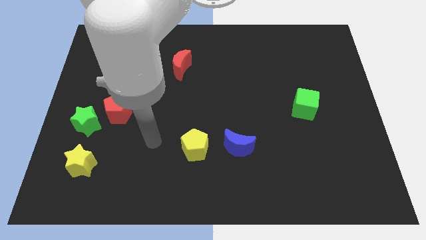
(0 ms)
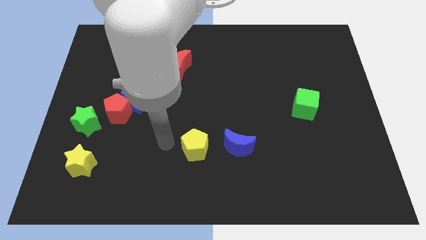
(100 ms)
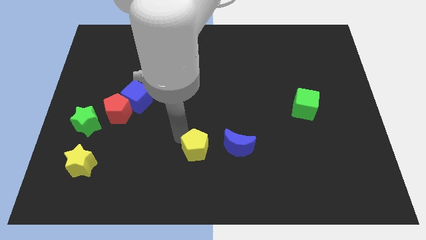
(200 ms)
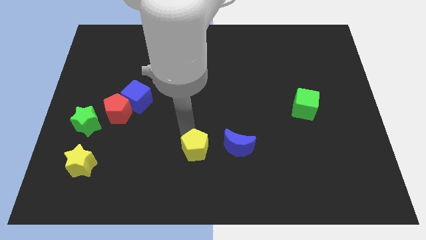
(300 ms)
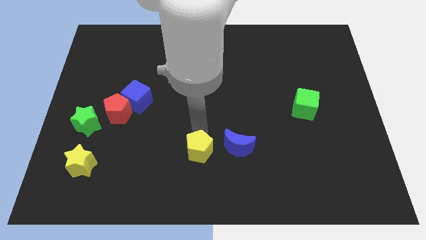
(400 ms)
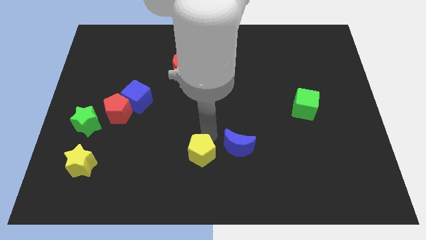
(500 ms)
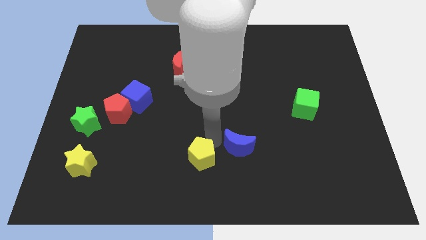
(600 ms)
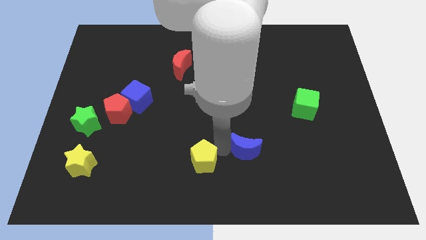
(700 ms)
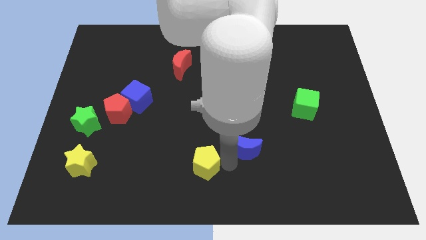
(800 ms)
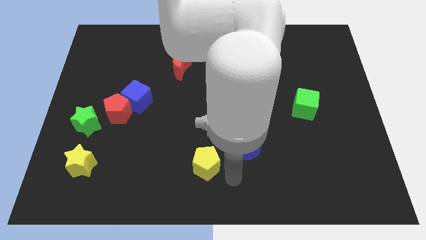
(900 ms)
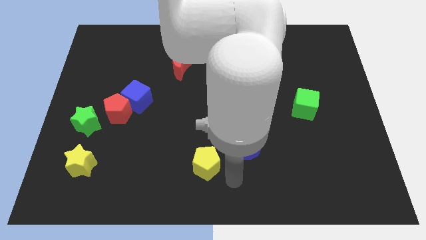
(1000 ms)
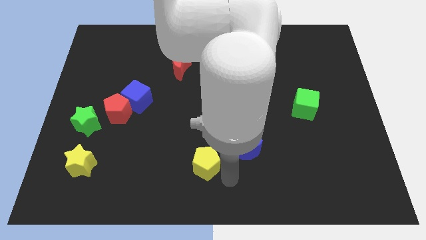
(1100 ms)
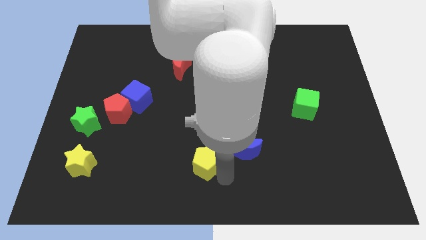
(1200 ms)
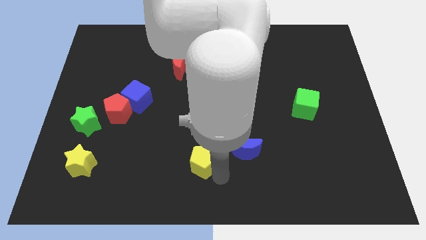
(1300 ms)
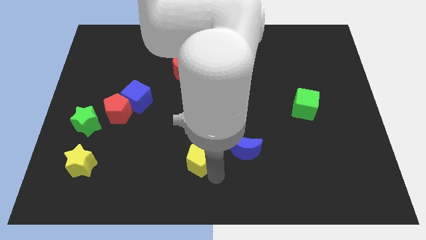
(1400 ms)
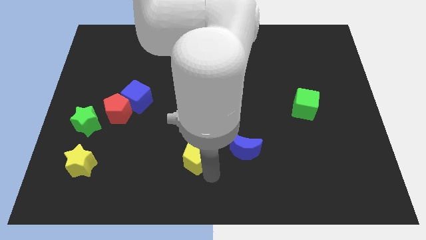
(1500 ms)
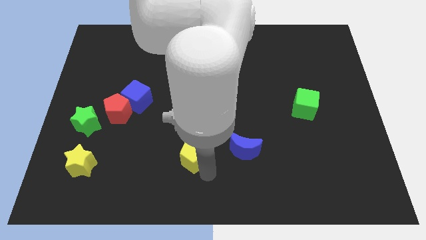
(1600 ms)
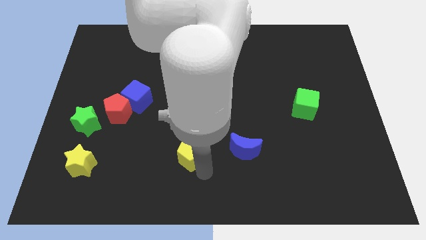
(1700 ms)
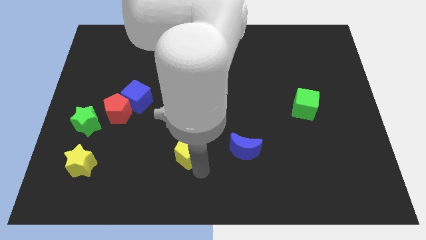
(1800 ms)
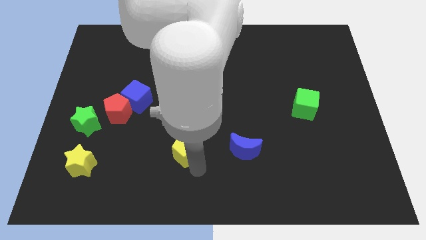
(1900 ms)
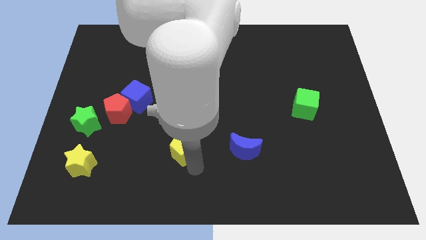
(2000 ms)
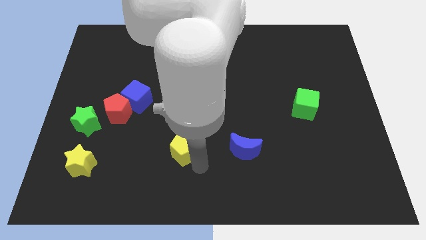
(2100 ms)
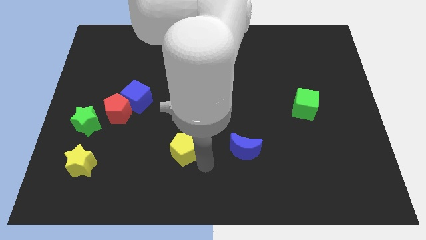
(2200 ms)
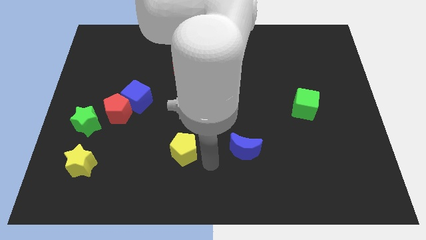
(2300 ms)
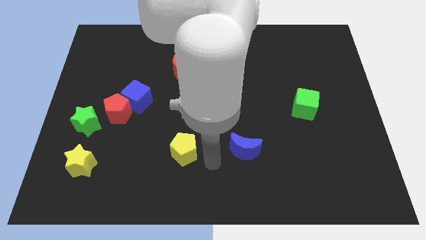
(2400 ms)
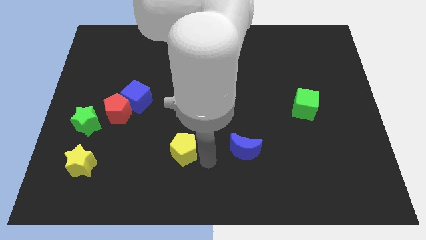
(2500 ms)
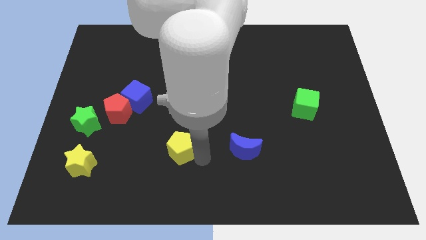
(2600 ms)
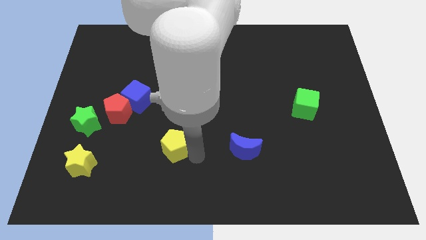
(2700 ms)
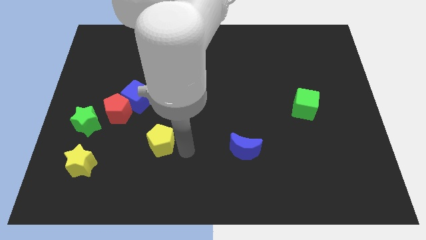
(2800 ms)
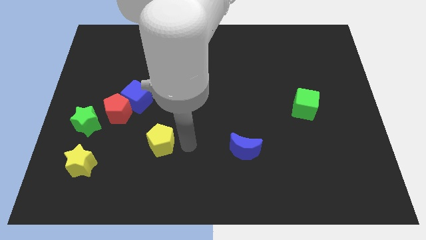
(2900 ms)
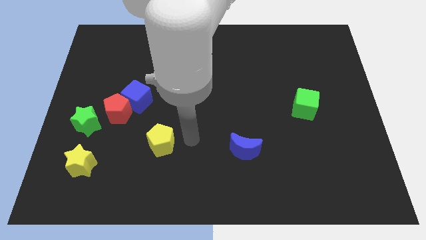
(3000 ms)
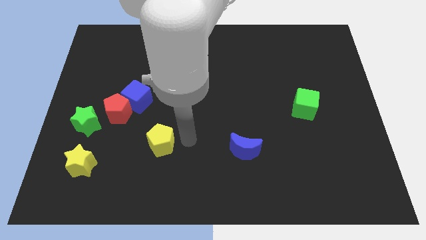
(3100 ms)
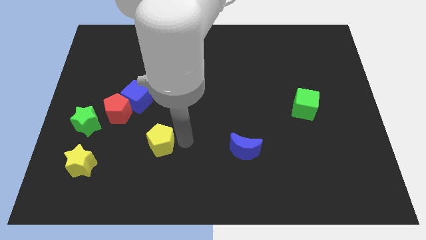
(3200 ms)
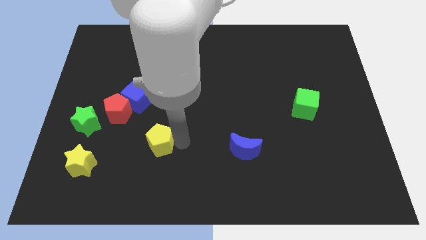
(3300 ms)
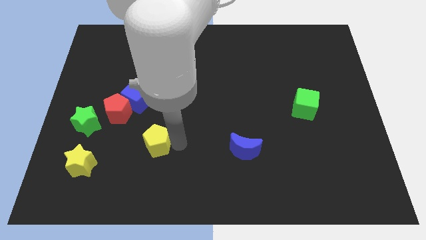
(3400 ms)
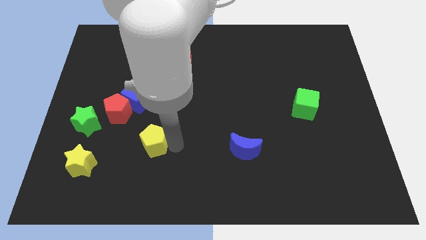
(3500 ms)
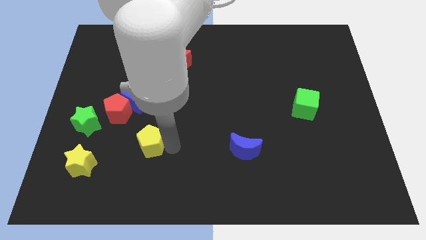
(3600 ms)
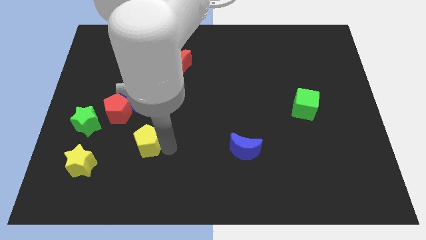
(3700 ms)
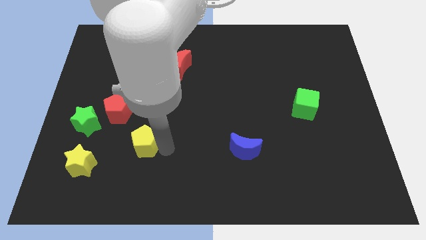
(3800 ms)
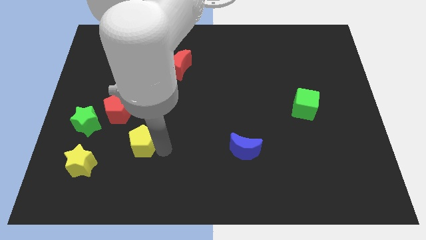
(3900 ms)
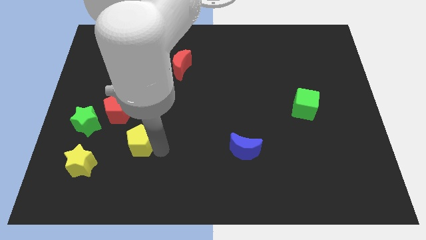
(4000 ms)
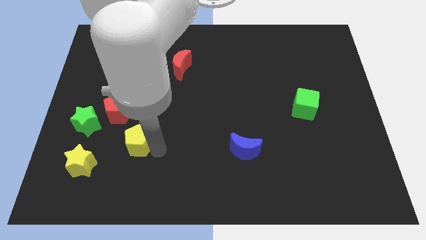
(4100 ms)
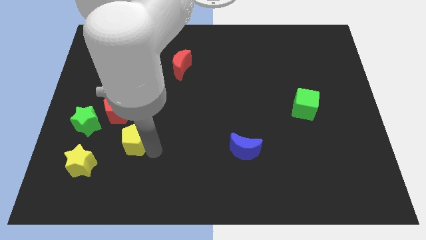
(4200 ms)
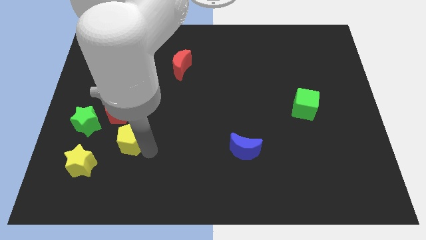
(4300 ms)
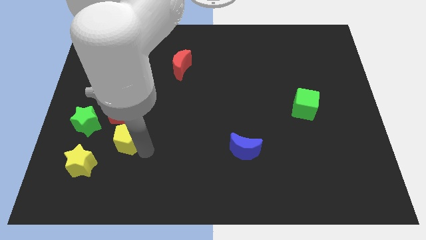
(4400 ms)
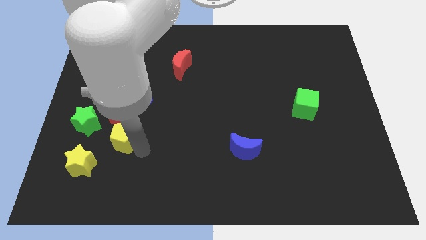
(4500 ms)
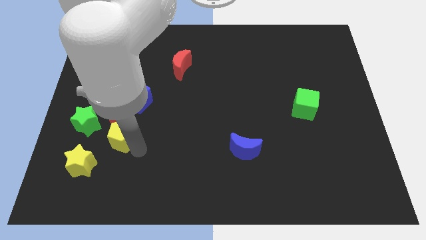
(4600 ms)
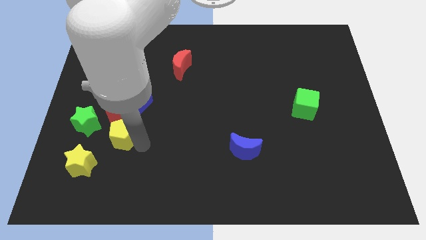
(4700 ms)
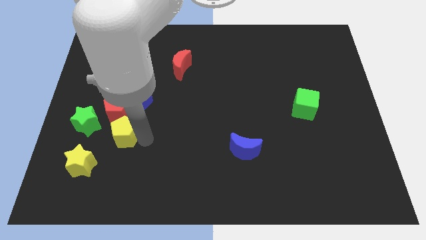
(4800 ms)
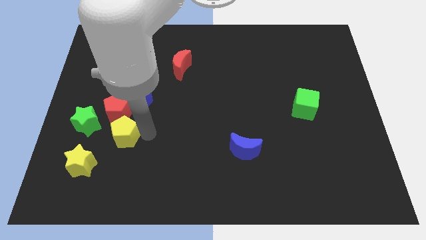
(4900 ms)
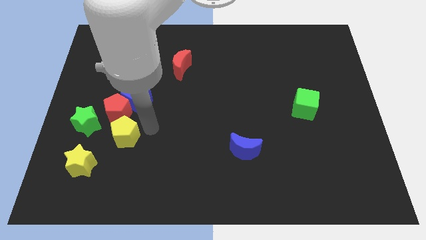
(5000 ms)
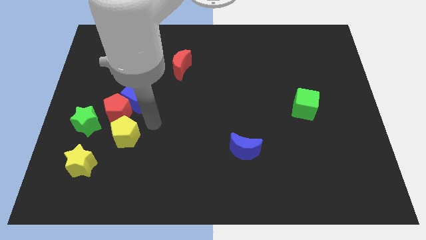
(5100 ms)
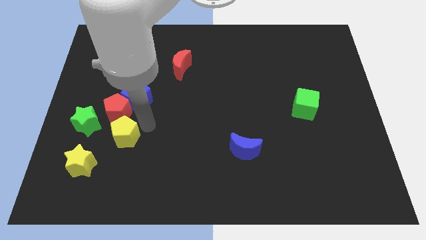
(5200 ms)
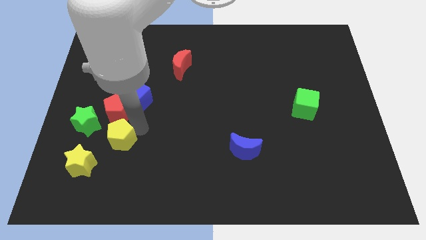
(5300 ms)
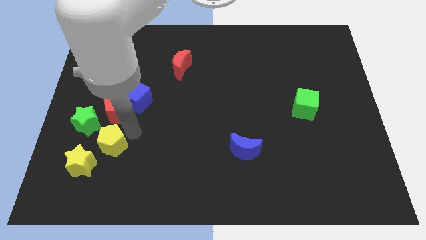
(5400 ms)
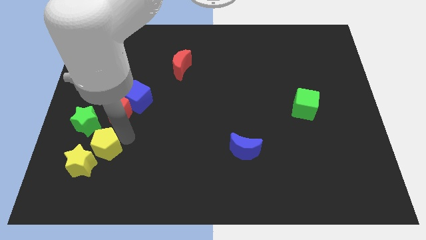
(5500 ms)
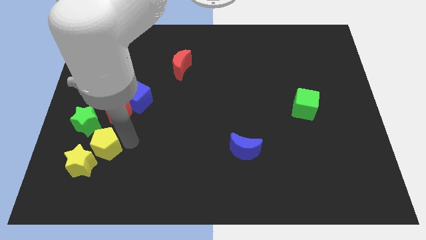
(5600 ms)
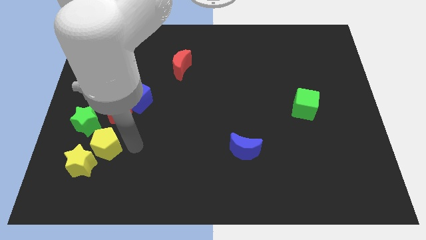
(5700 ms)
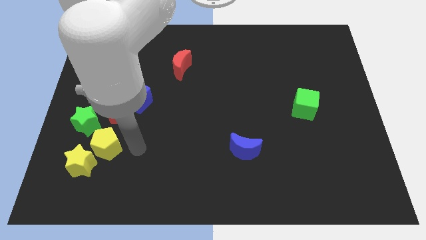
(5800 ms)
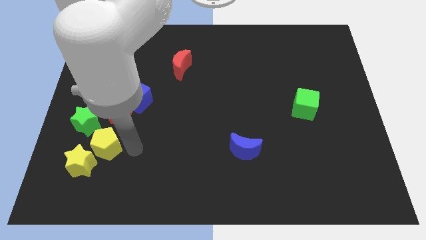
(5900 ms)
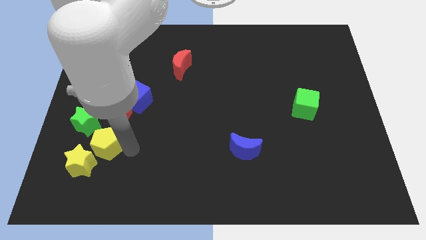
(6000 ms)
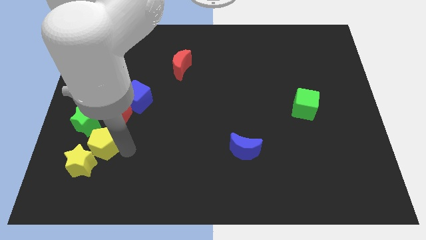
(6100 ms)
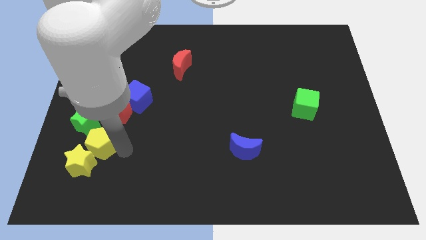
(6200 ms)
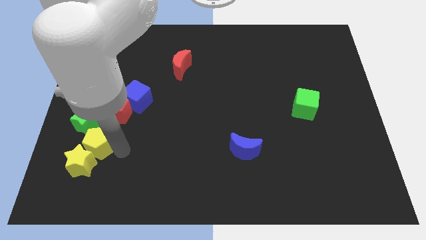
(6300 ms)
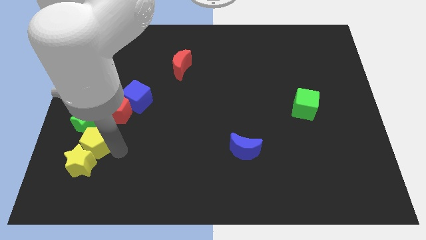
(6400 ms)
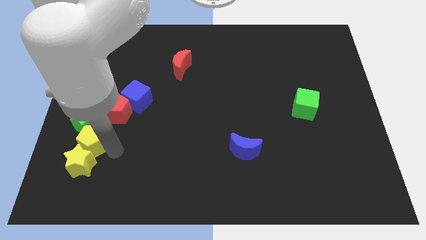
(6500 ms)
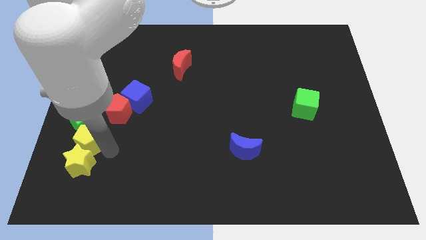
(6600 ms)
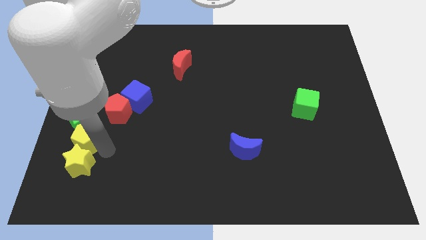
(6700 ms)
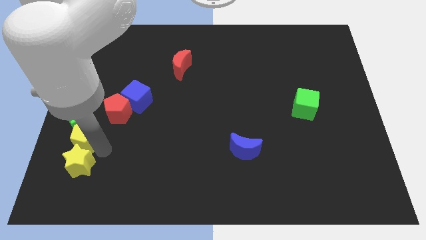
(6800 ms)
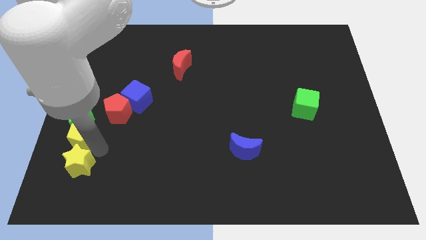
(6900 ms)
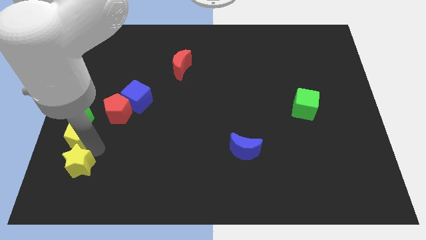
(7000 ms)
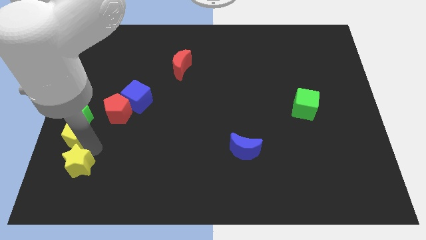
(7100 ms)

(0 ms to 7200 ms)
slide the yellow pentagon to the center left
